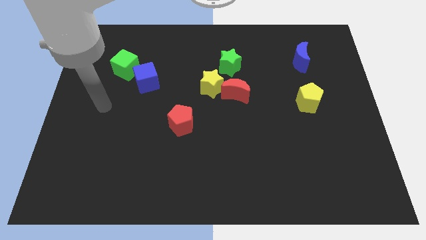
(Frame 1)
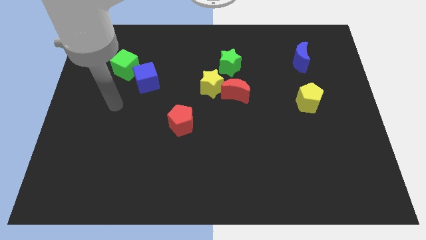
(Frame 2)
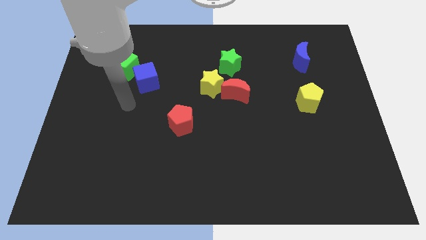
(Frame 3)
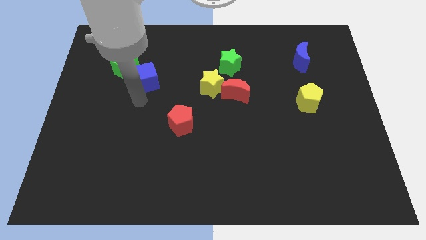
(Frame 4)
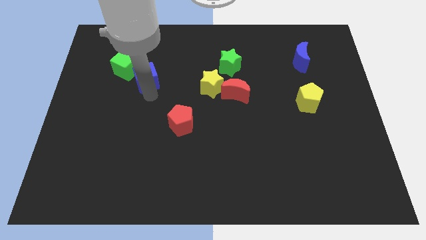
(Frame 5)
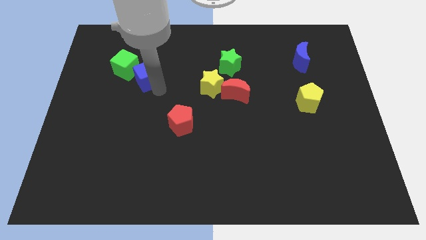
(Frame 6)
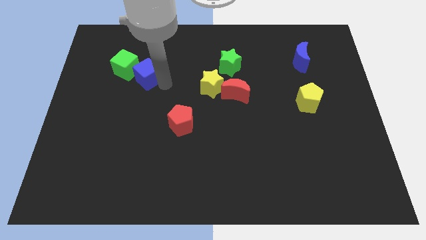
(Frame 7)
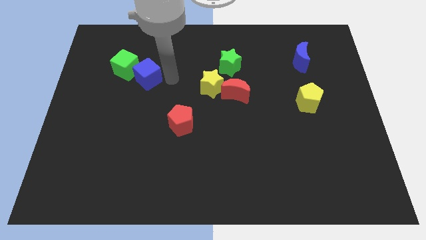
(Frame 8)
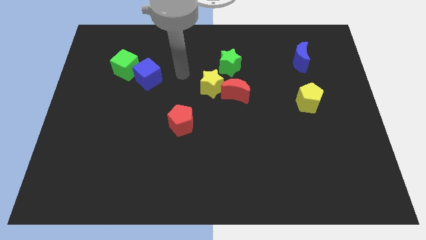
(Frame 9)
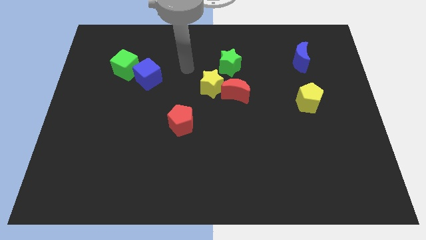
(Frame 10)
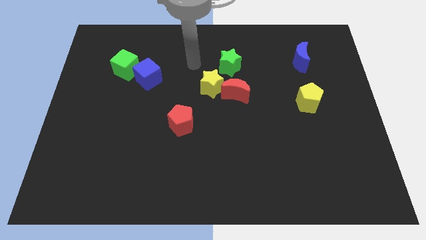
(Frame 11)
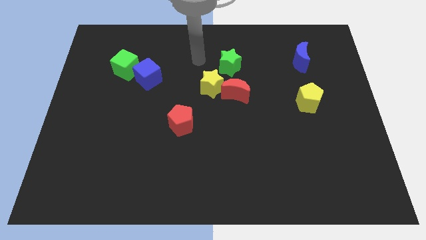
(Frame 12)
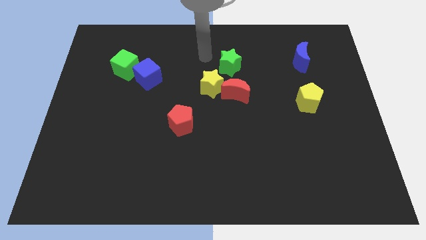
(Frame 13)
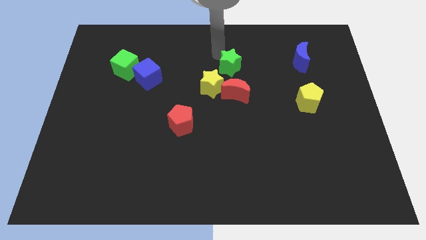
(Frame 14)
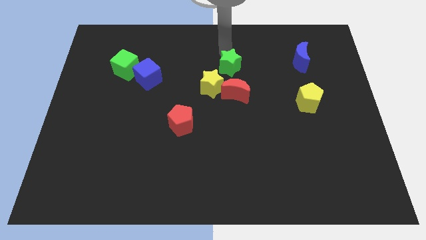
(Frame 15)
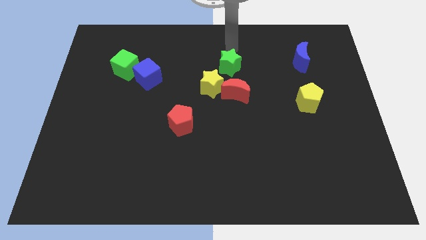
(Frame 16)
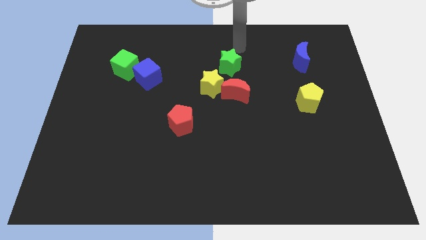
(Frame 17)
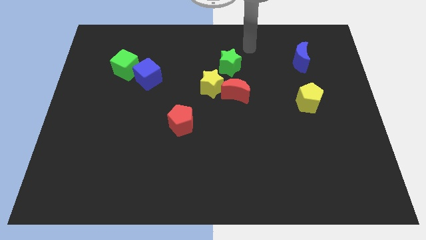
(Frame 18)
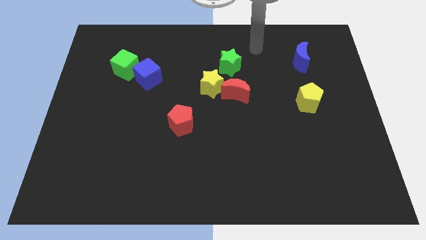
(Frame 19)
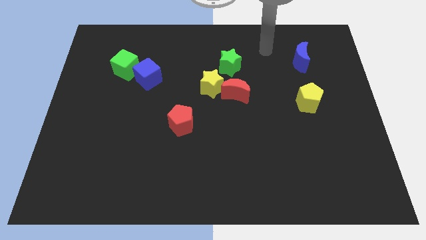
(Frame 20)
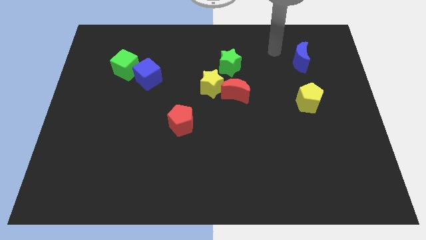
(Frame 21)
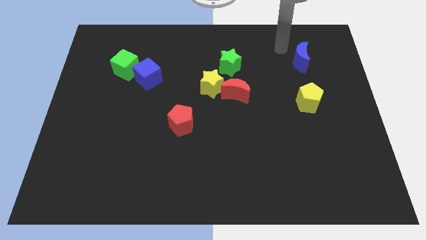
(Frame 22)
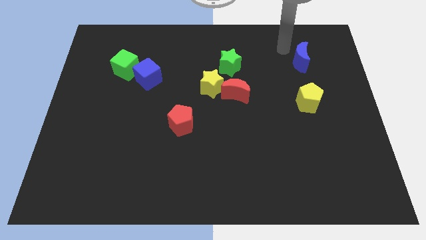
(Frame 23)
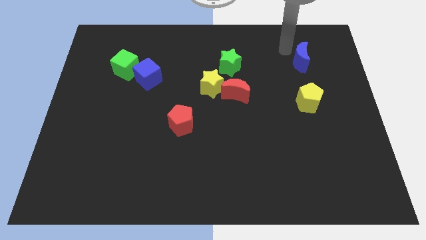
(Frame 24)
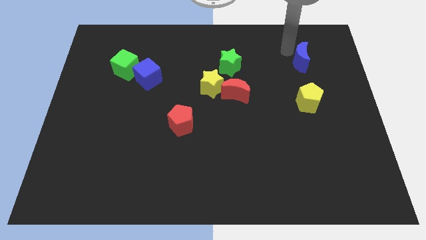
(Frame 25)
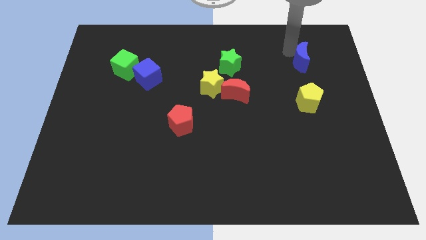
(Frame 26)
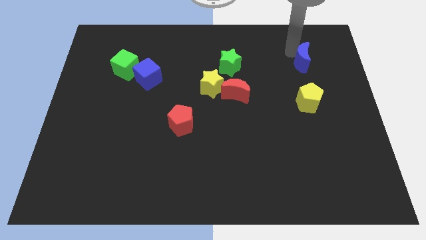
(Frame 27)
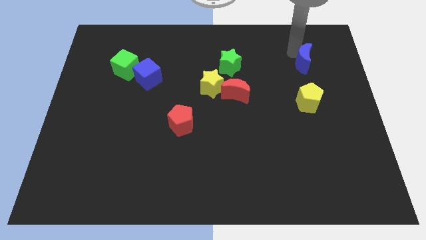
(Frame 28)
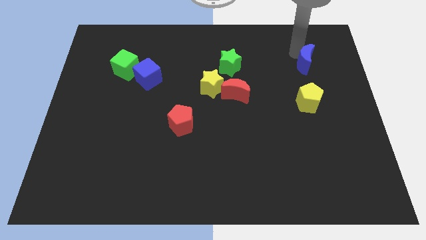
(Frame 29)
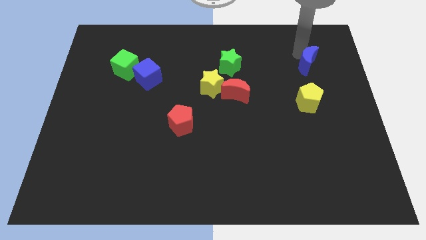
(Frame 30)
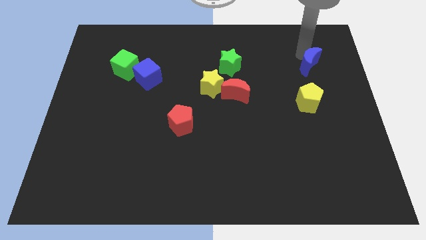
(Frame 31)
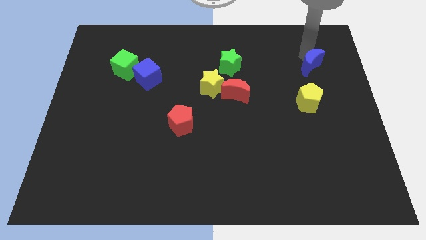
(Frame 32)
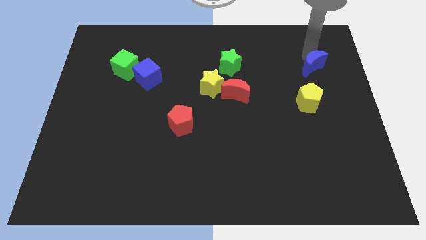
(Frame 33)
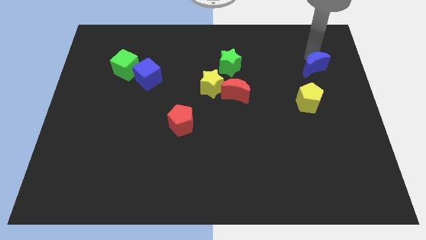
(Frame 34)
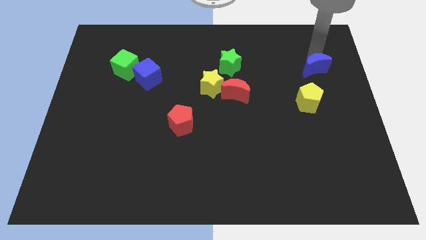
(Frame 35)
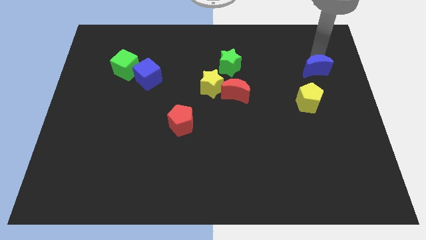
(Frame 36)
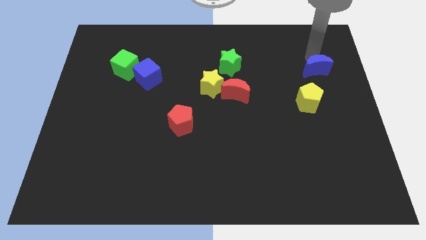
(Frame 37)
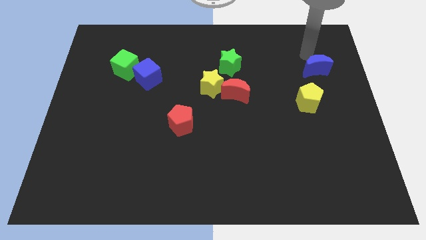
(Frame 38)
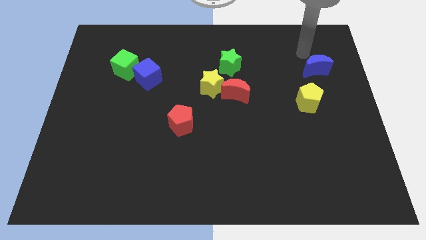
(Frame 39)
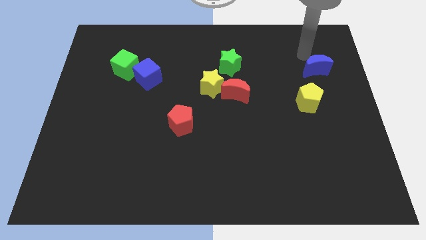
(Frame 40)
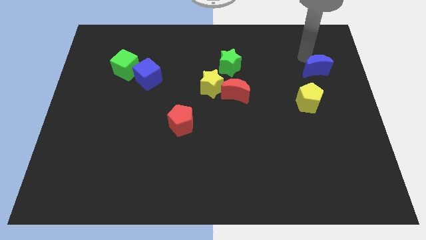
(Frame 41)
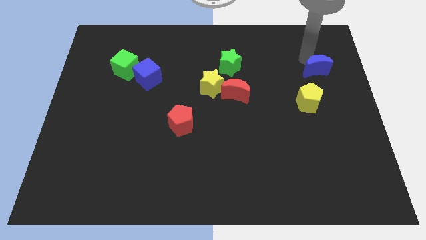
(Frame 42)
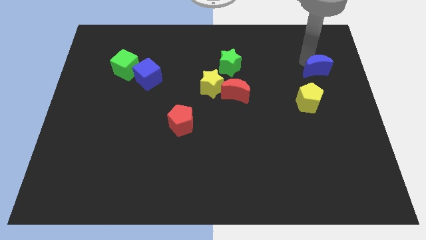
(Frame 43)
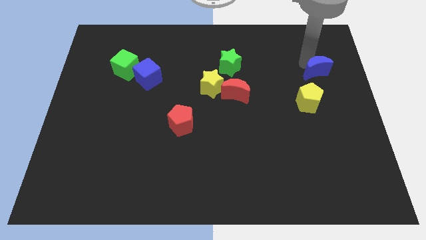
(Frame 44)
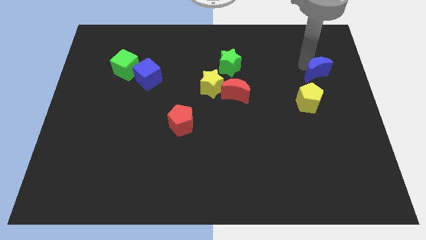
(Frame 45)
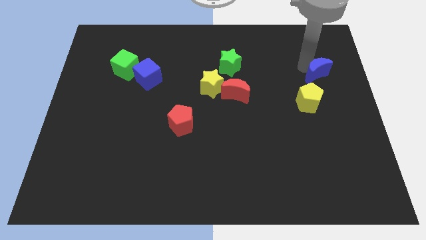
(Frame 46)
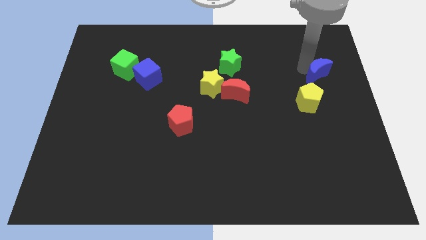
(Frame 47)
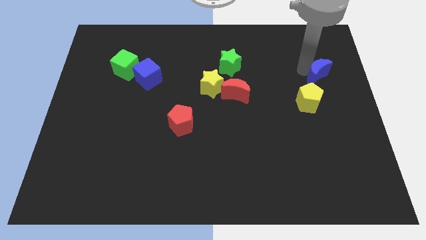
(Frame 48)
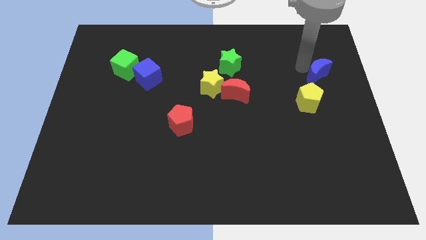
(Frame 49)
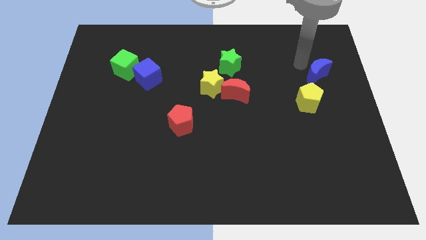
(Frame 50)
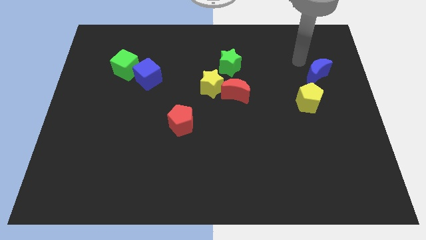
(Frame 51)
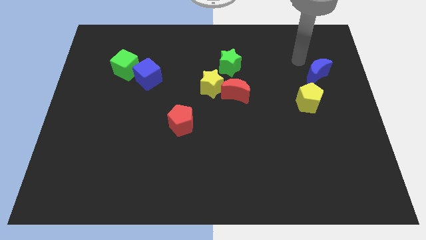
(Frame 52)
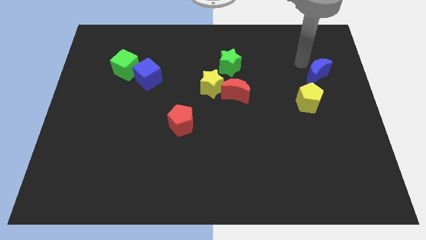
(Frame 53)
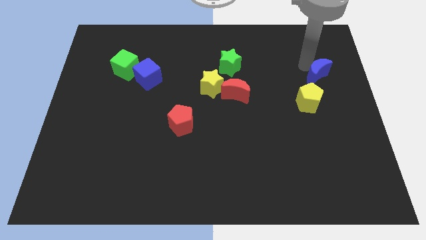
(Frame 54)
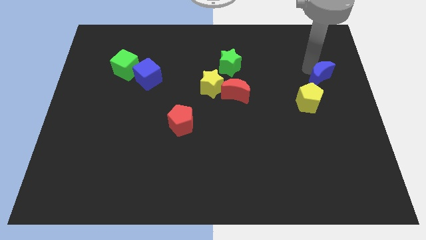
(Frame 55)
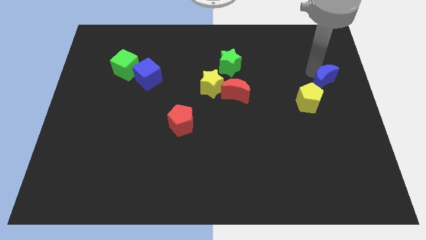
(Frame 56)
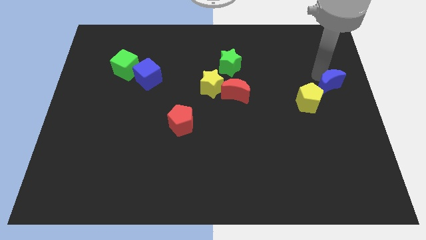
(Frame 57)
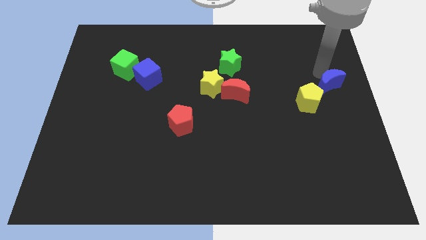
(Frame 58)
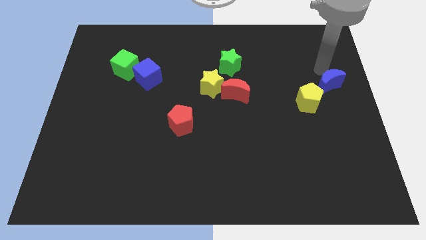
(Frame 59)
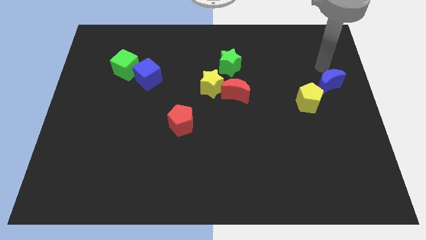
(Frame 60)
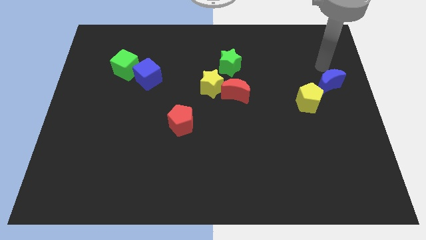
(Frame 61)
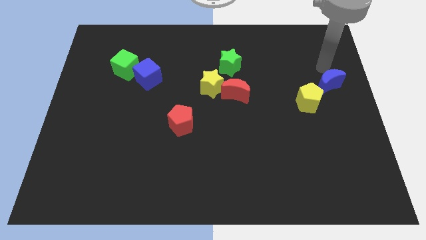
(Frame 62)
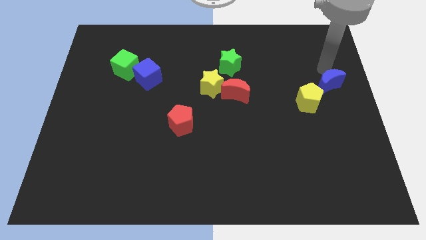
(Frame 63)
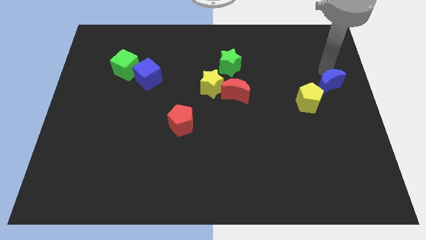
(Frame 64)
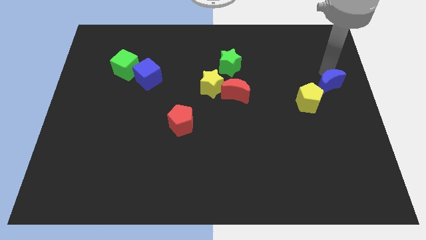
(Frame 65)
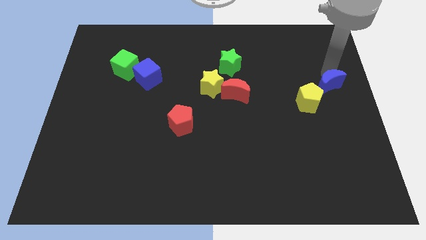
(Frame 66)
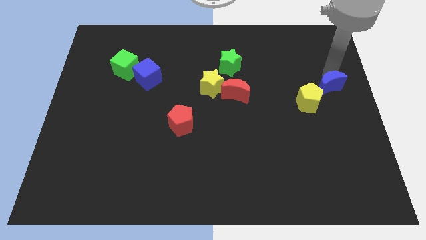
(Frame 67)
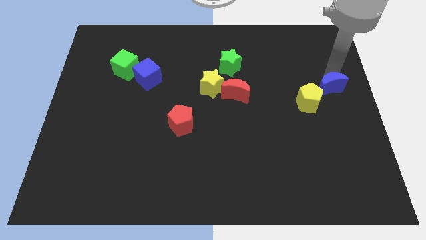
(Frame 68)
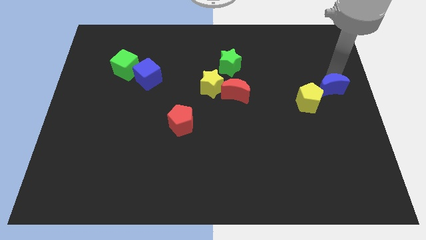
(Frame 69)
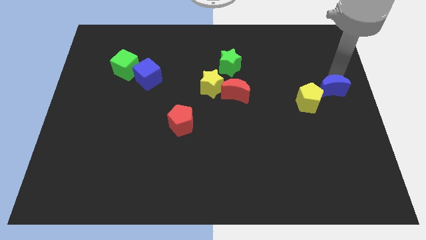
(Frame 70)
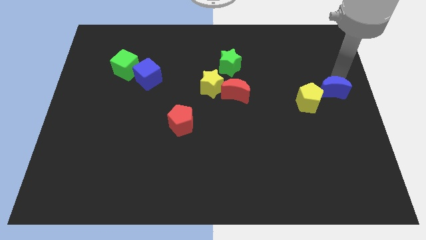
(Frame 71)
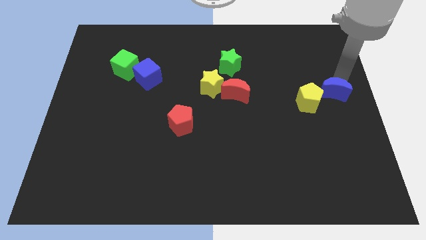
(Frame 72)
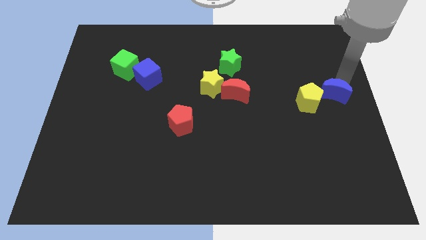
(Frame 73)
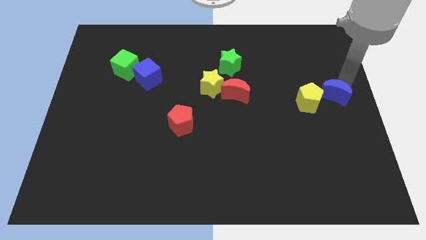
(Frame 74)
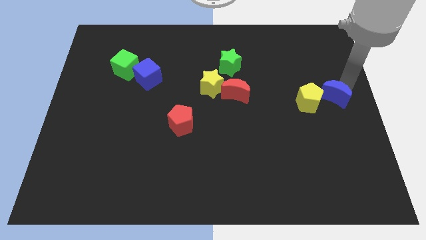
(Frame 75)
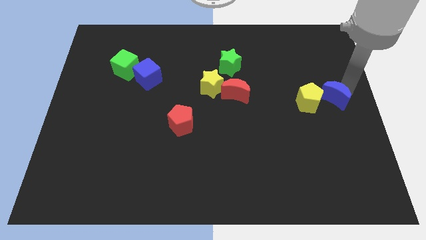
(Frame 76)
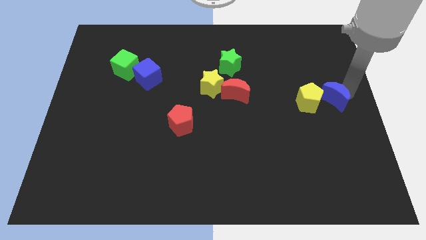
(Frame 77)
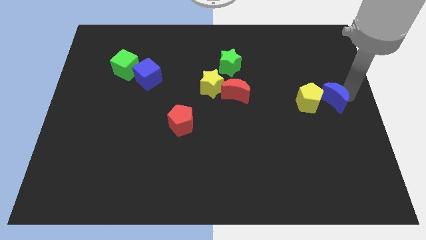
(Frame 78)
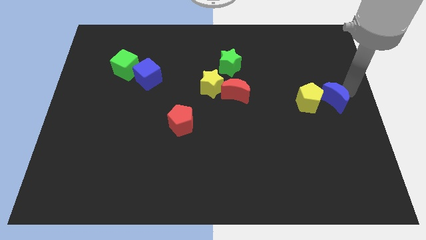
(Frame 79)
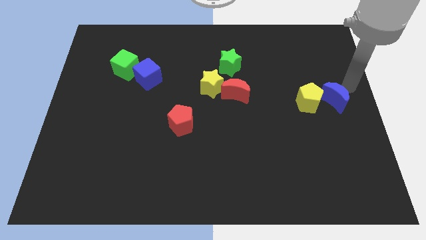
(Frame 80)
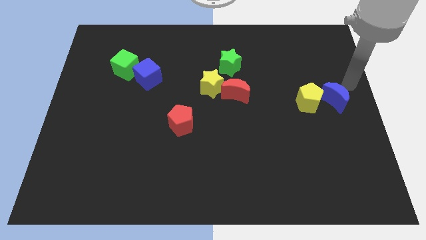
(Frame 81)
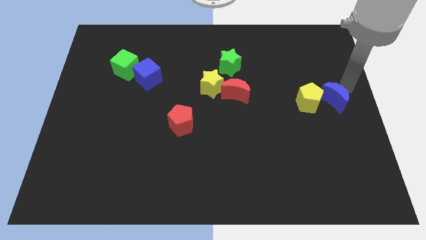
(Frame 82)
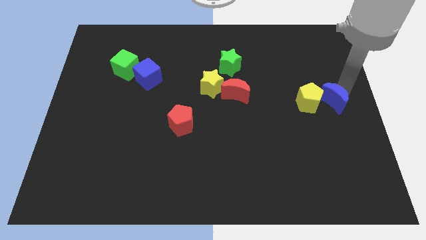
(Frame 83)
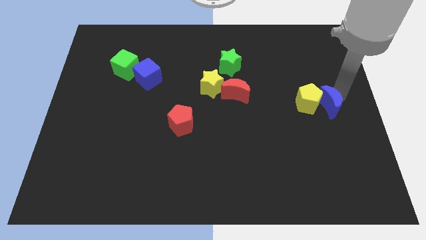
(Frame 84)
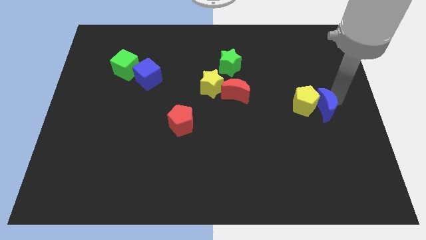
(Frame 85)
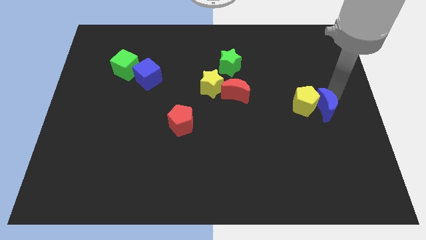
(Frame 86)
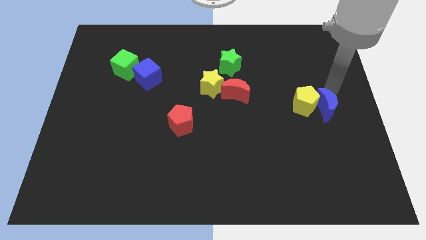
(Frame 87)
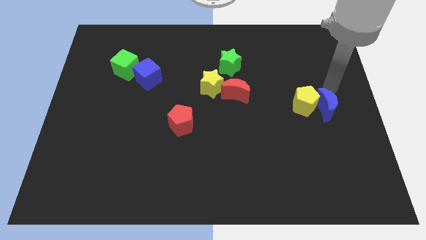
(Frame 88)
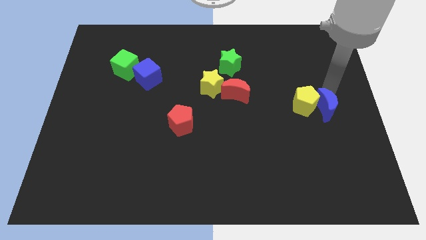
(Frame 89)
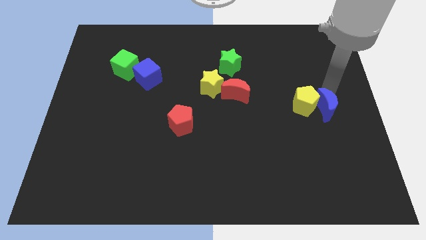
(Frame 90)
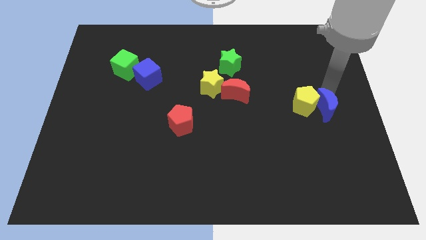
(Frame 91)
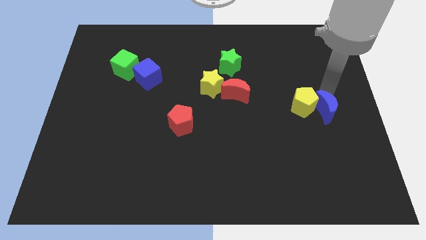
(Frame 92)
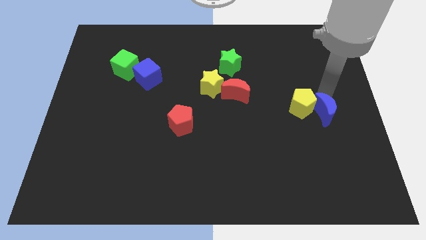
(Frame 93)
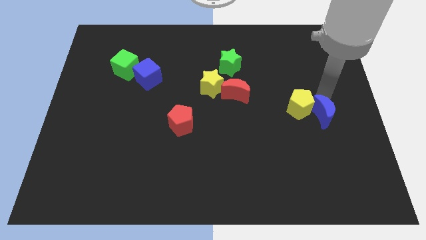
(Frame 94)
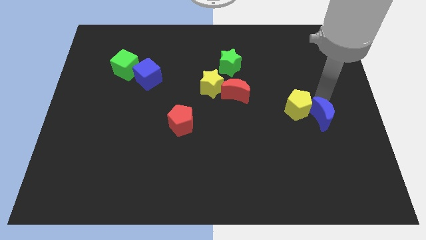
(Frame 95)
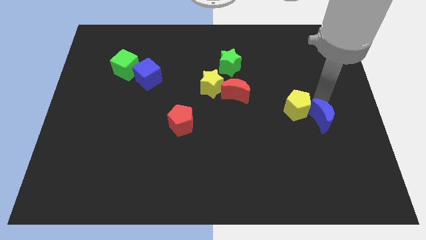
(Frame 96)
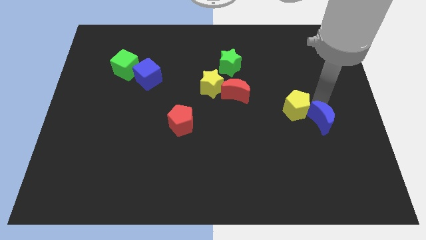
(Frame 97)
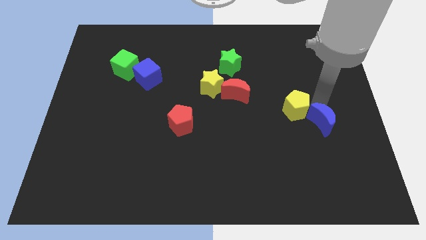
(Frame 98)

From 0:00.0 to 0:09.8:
push the blue moon down
